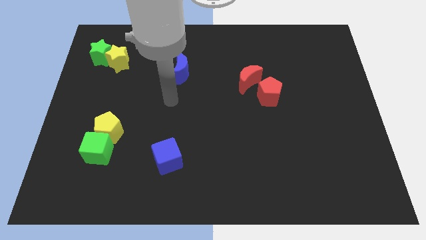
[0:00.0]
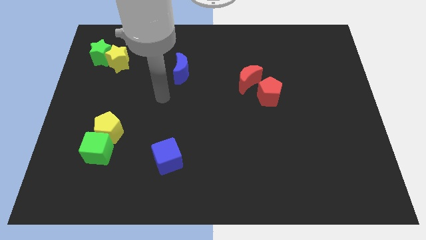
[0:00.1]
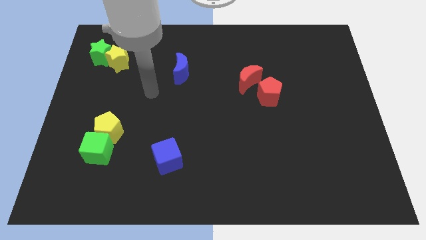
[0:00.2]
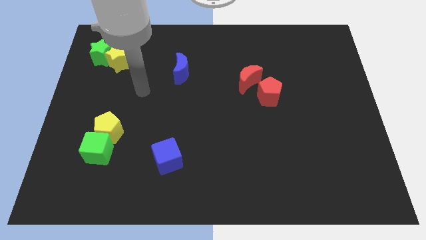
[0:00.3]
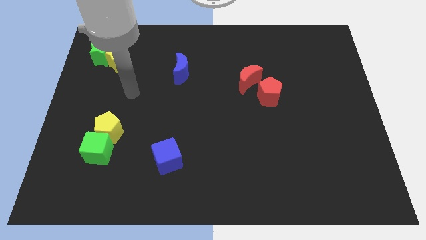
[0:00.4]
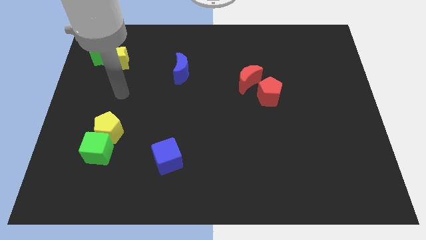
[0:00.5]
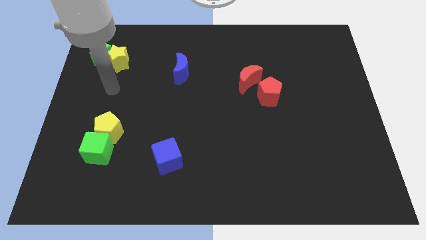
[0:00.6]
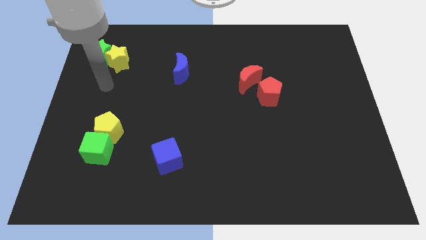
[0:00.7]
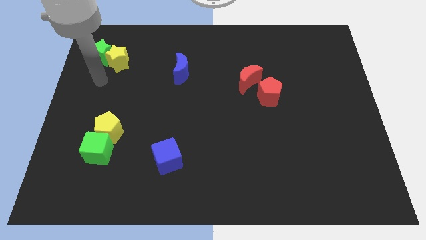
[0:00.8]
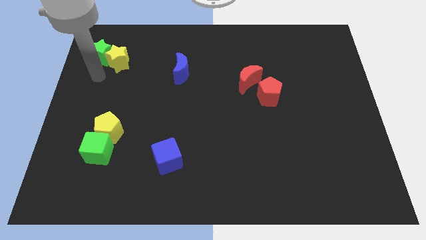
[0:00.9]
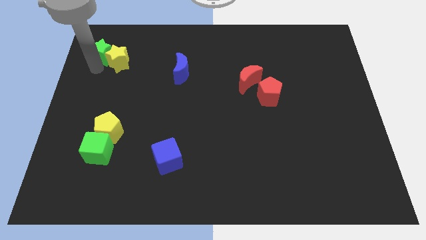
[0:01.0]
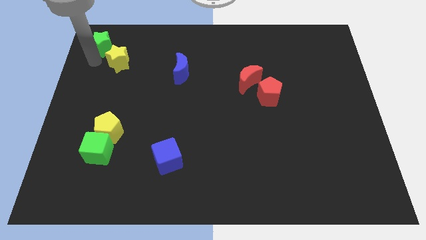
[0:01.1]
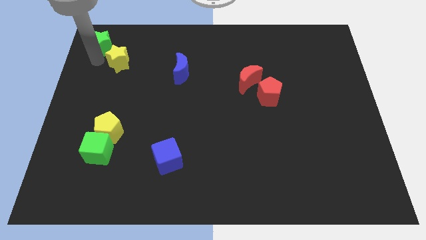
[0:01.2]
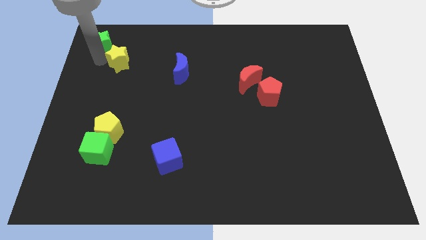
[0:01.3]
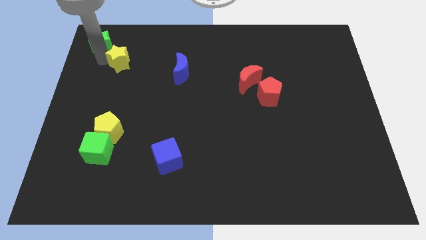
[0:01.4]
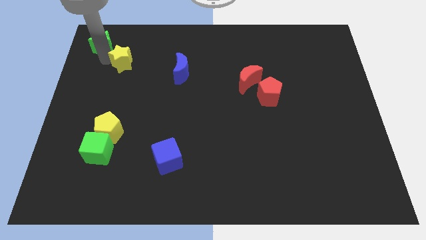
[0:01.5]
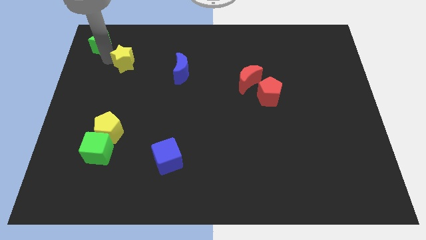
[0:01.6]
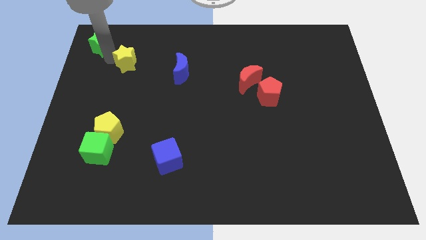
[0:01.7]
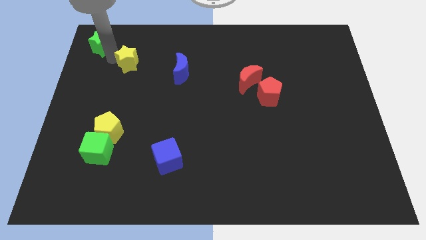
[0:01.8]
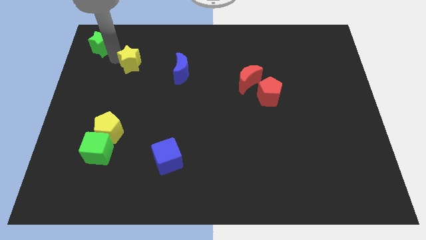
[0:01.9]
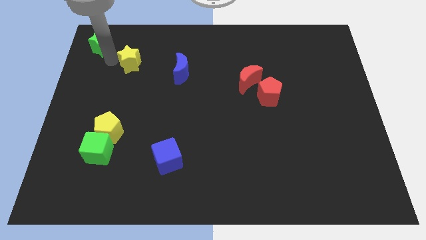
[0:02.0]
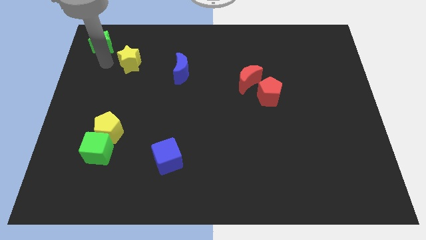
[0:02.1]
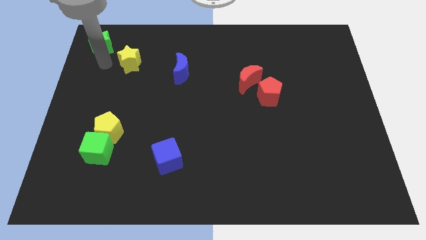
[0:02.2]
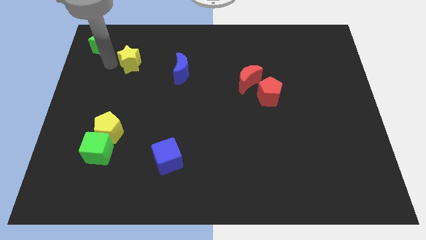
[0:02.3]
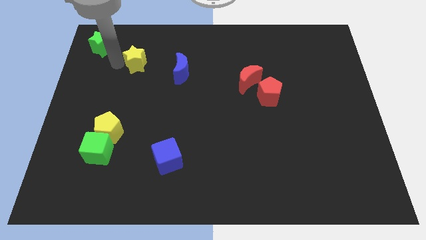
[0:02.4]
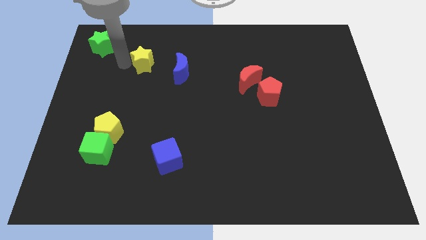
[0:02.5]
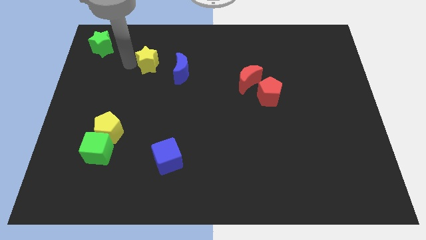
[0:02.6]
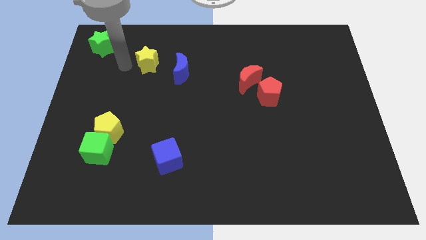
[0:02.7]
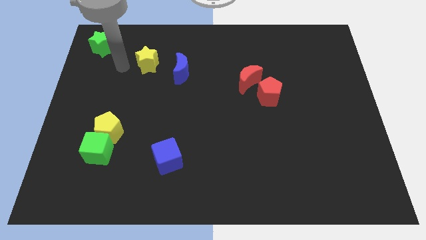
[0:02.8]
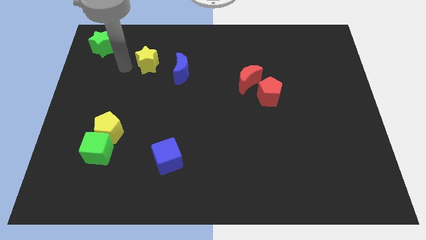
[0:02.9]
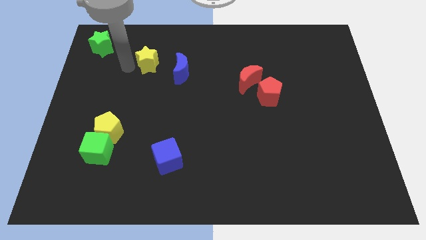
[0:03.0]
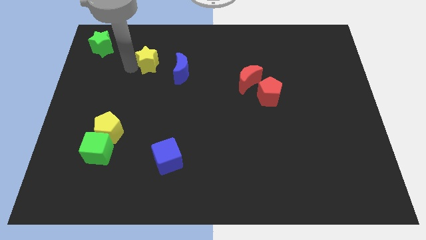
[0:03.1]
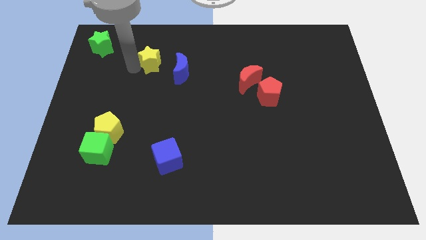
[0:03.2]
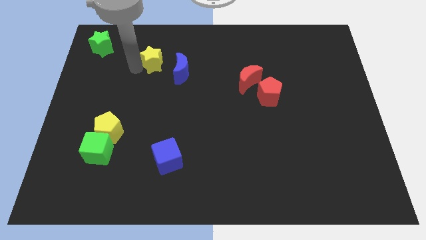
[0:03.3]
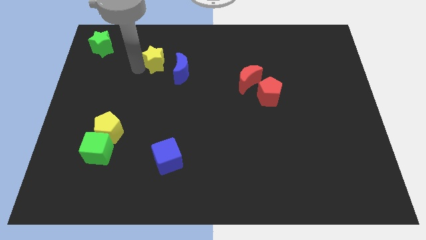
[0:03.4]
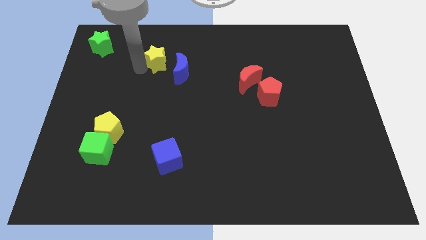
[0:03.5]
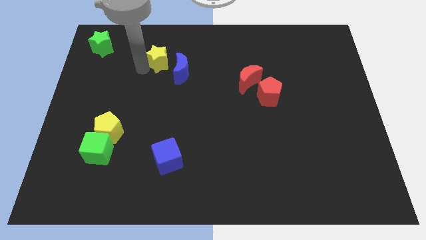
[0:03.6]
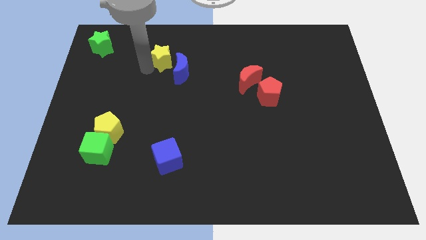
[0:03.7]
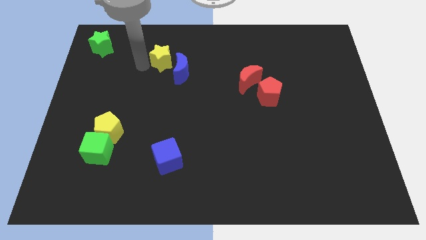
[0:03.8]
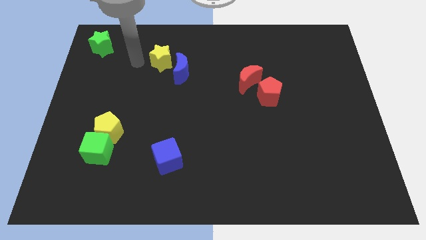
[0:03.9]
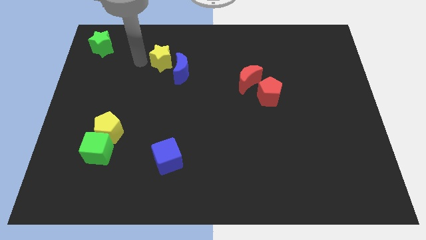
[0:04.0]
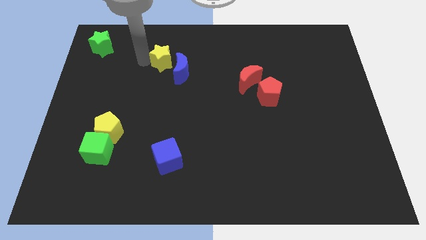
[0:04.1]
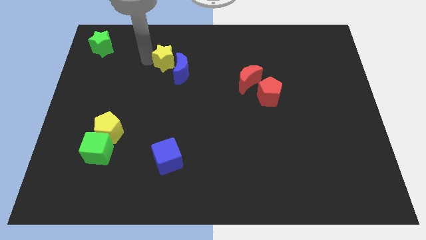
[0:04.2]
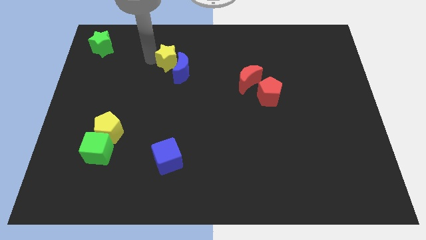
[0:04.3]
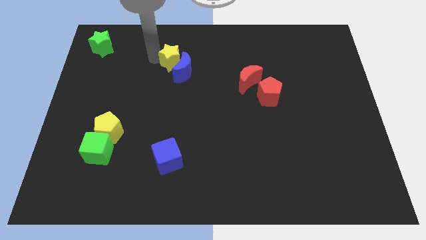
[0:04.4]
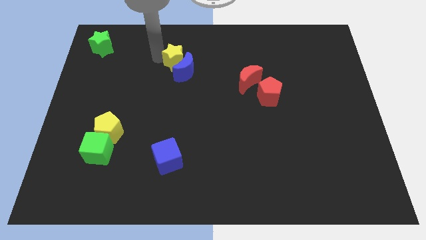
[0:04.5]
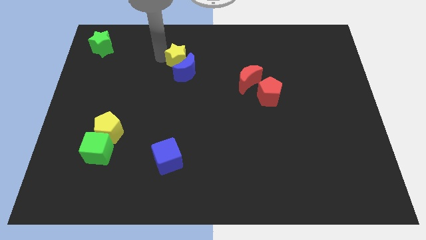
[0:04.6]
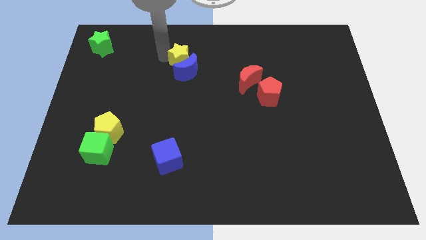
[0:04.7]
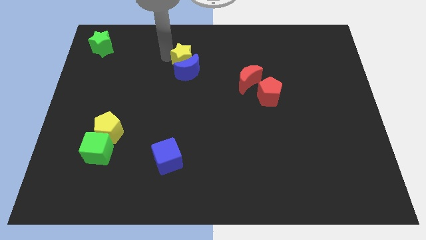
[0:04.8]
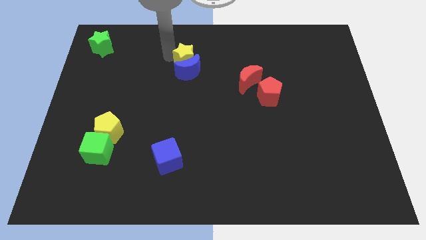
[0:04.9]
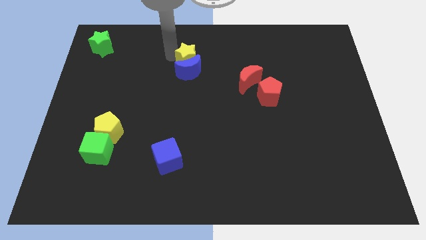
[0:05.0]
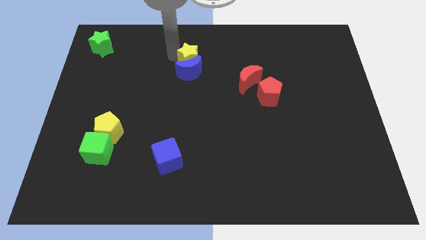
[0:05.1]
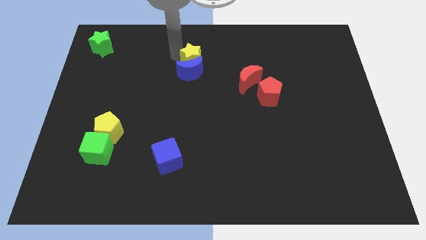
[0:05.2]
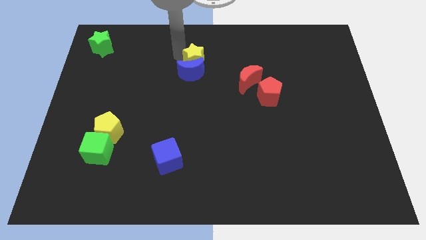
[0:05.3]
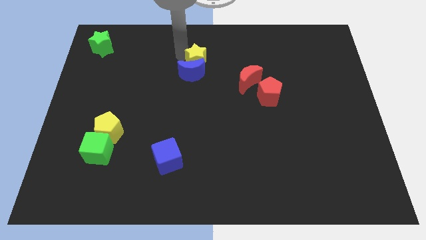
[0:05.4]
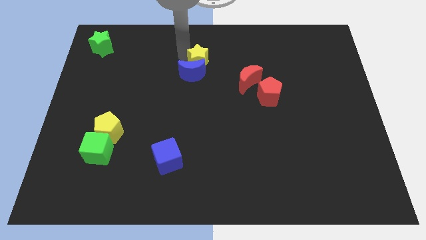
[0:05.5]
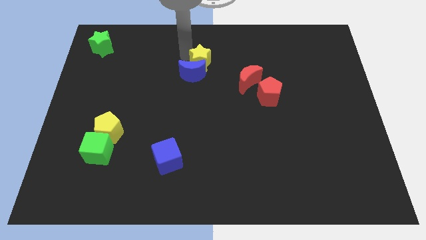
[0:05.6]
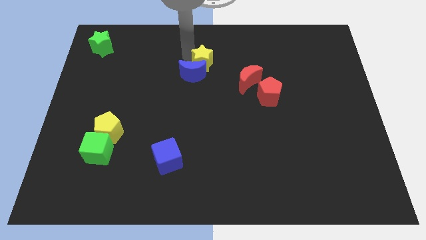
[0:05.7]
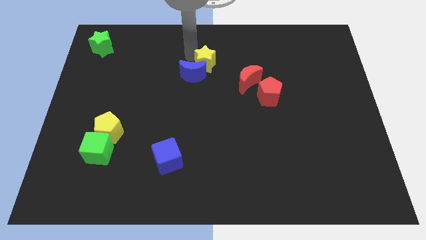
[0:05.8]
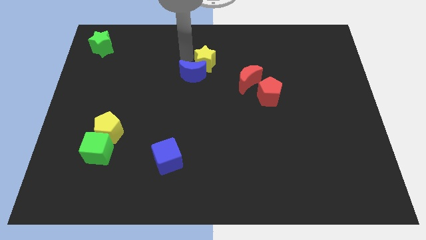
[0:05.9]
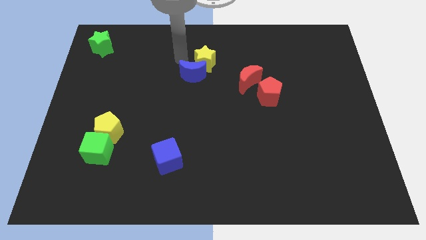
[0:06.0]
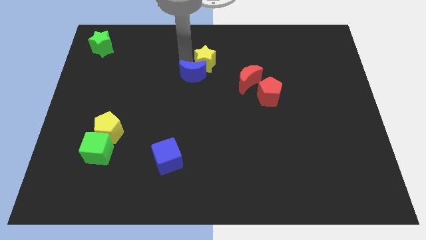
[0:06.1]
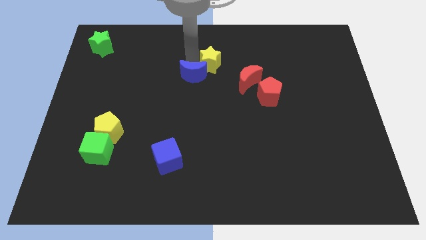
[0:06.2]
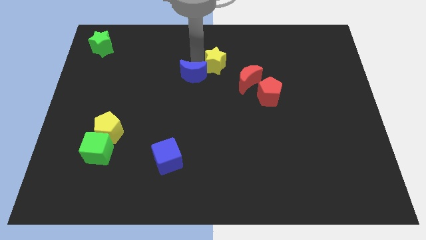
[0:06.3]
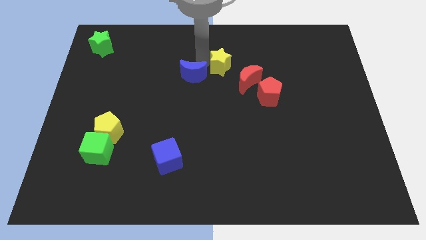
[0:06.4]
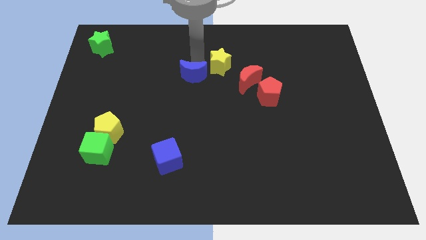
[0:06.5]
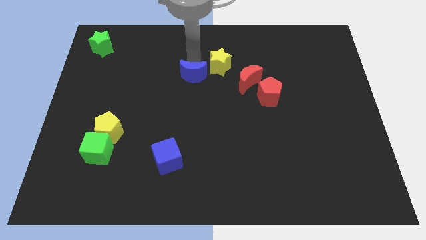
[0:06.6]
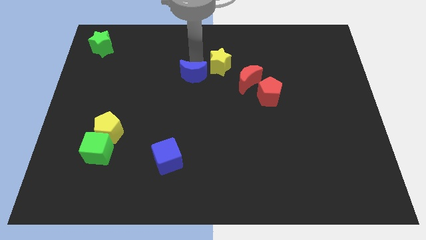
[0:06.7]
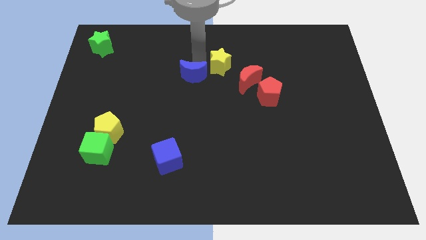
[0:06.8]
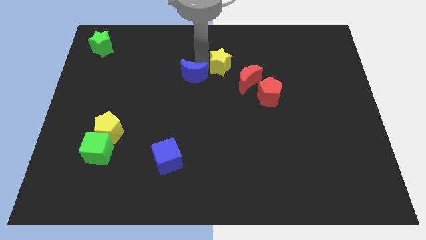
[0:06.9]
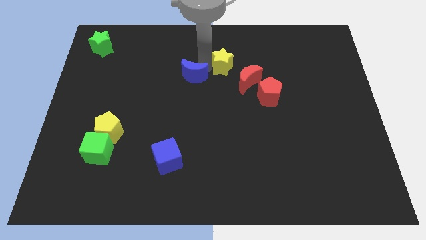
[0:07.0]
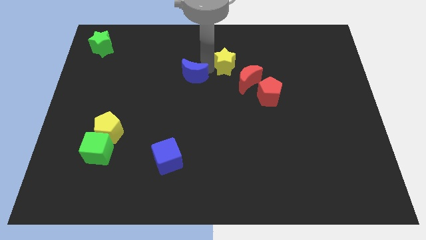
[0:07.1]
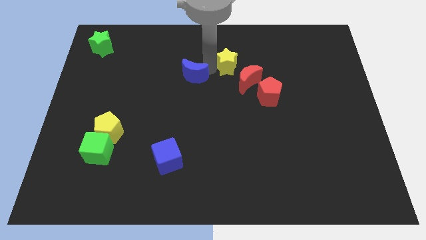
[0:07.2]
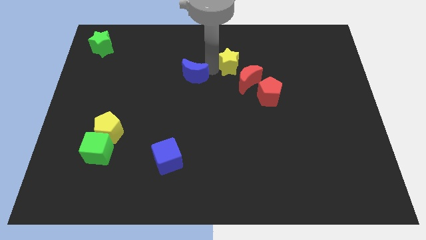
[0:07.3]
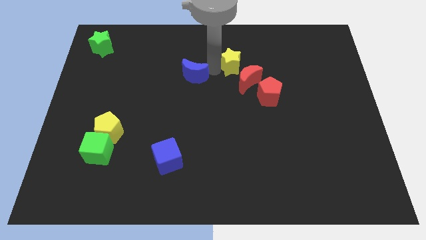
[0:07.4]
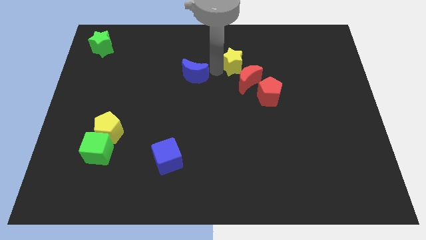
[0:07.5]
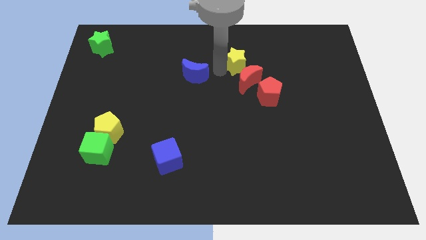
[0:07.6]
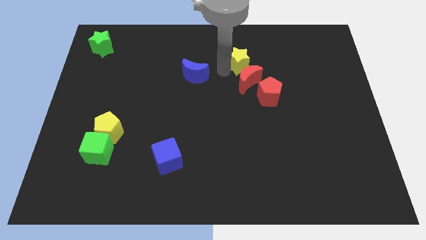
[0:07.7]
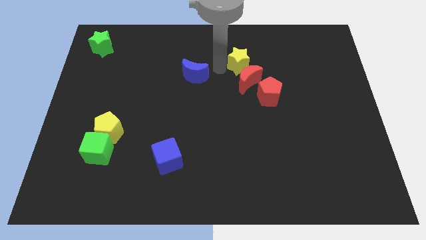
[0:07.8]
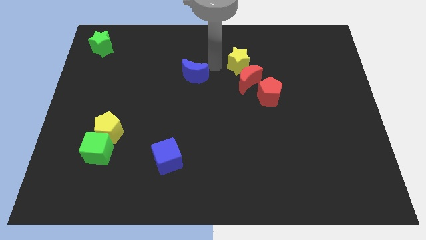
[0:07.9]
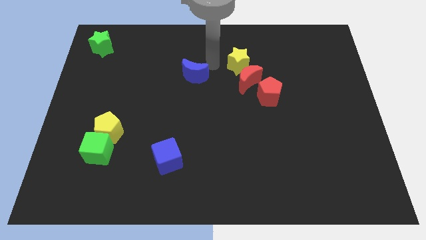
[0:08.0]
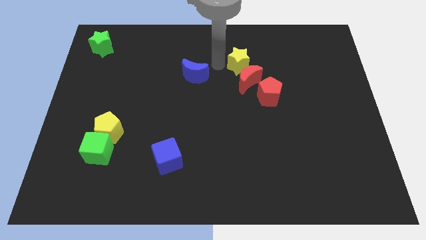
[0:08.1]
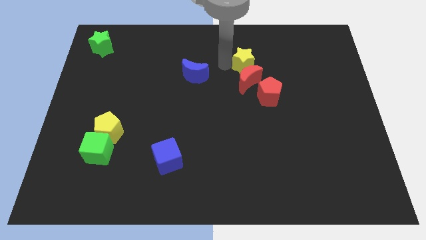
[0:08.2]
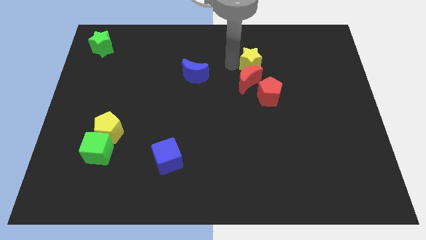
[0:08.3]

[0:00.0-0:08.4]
push the yellow star to the top side of the red pentagon
